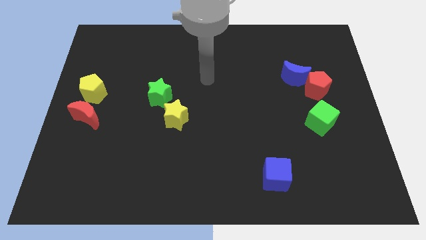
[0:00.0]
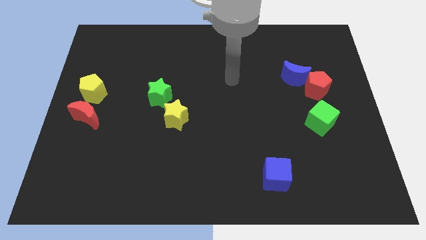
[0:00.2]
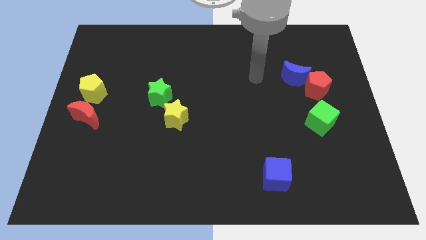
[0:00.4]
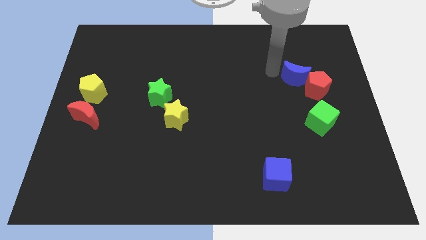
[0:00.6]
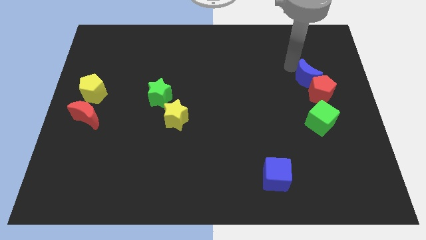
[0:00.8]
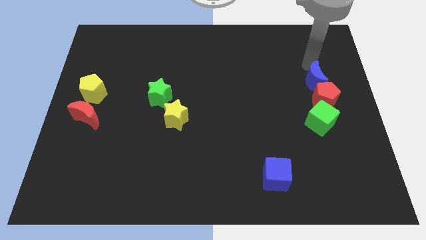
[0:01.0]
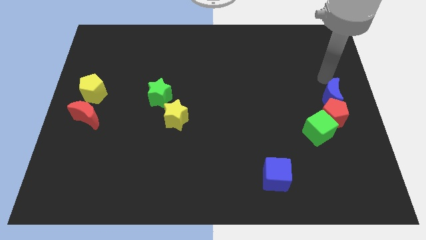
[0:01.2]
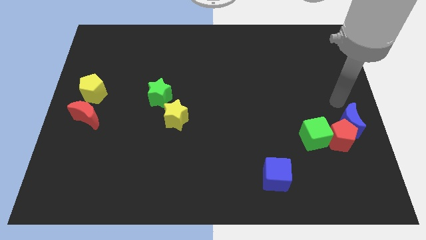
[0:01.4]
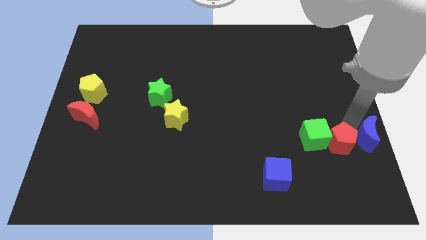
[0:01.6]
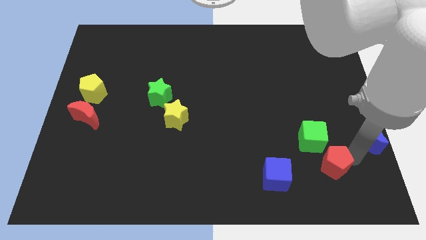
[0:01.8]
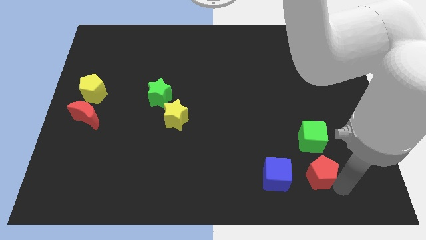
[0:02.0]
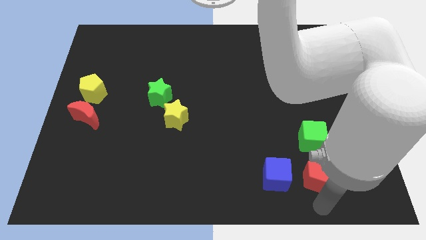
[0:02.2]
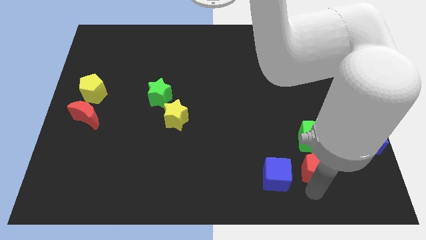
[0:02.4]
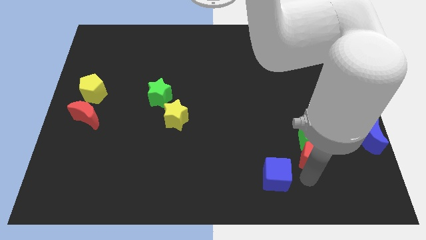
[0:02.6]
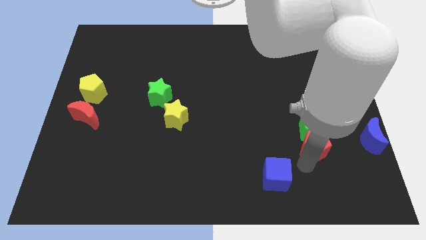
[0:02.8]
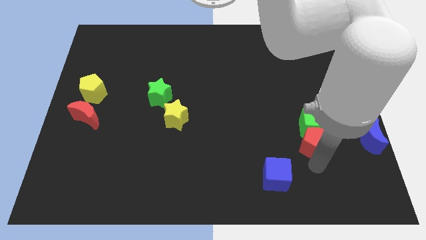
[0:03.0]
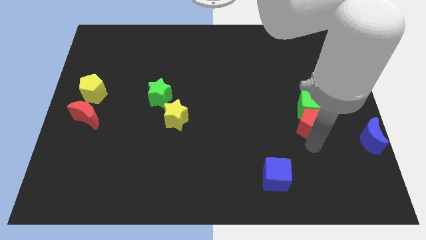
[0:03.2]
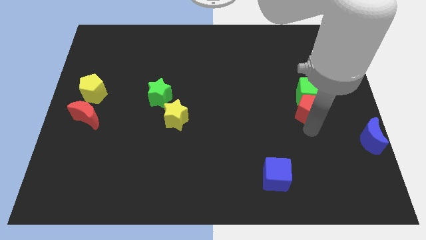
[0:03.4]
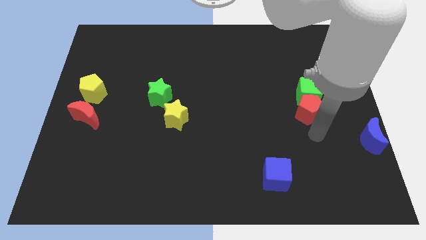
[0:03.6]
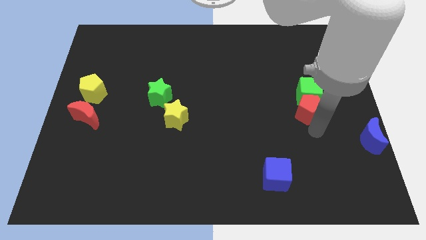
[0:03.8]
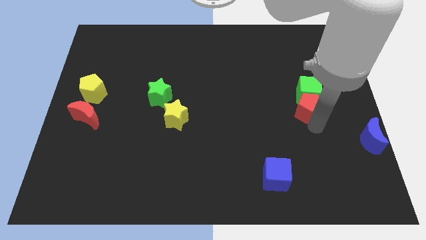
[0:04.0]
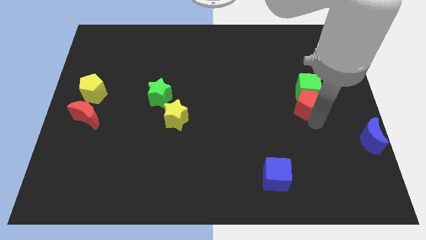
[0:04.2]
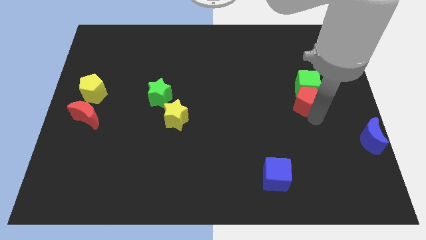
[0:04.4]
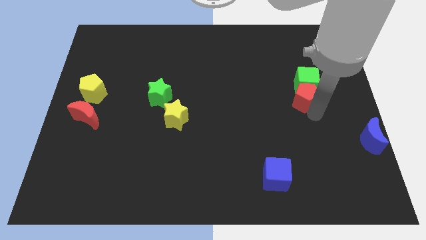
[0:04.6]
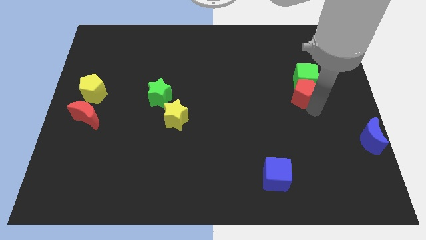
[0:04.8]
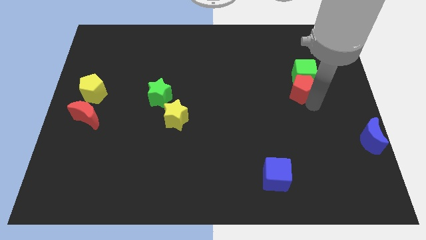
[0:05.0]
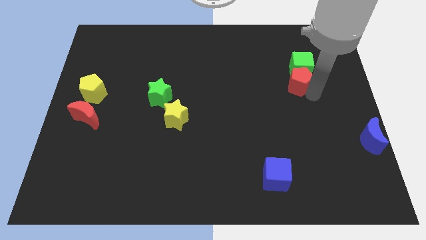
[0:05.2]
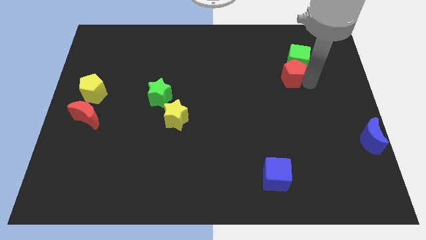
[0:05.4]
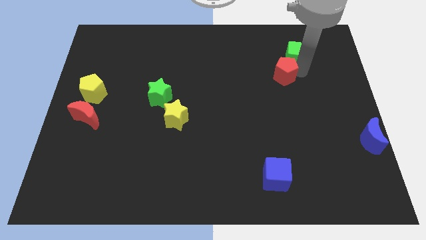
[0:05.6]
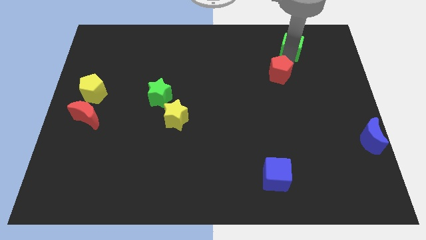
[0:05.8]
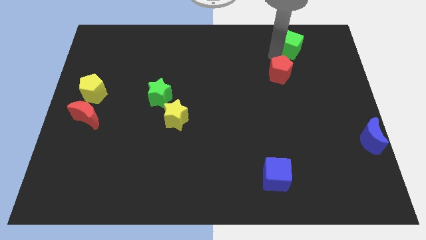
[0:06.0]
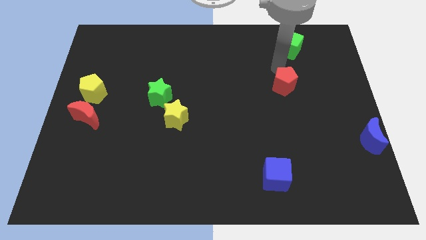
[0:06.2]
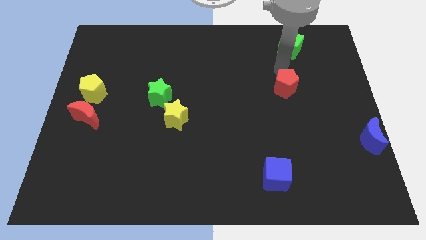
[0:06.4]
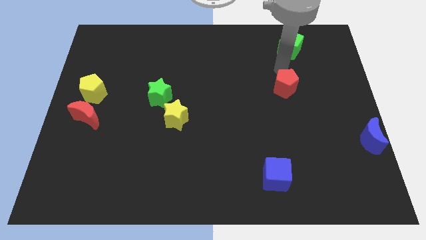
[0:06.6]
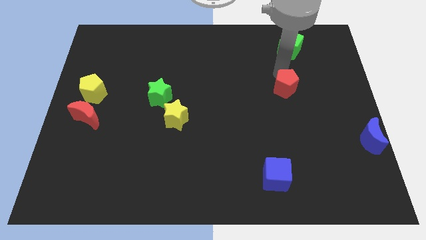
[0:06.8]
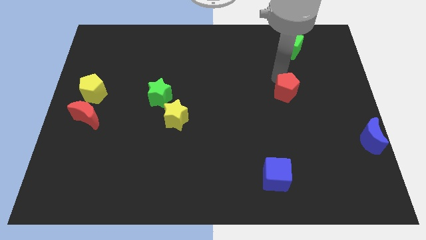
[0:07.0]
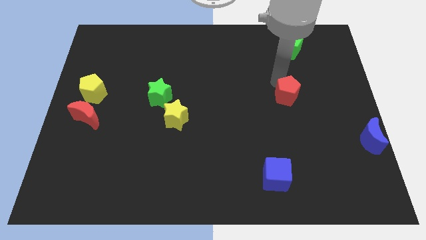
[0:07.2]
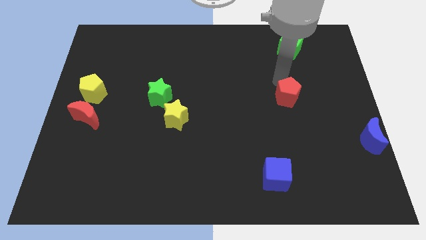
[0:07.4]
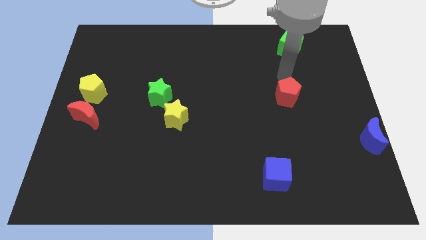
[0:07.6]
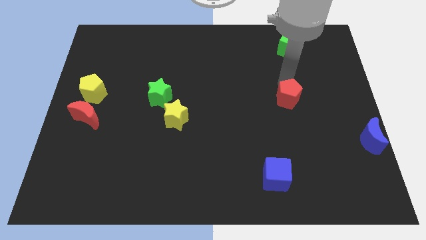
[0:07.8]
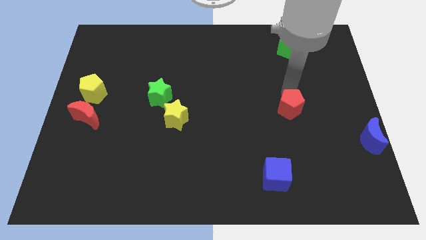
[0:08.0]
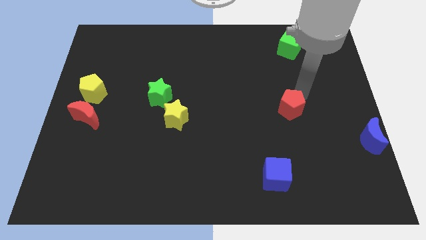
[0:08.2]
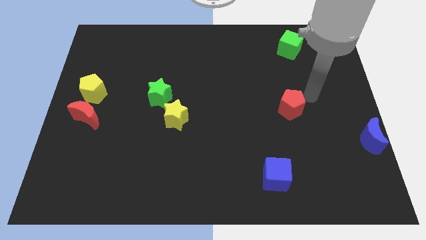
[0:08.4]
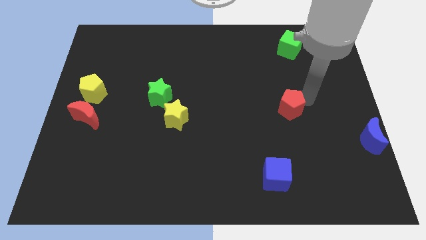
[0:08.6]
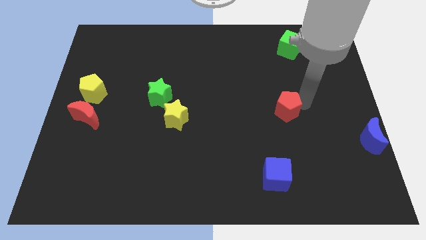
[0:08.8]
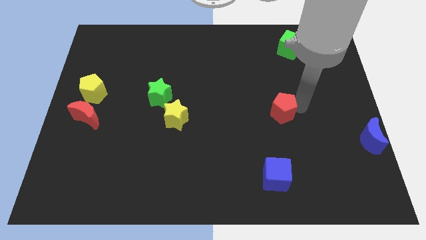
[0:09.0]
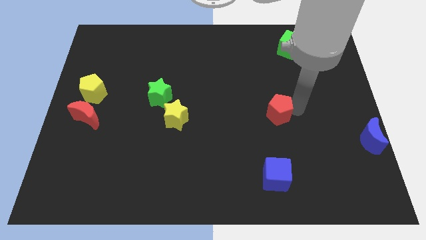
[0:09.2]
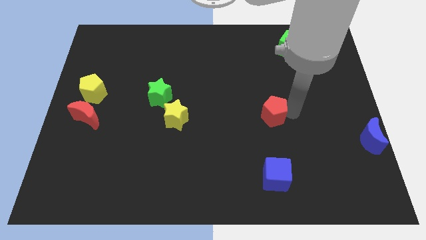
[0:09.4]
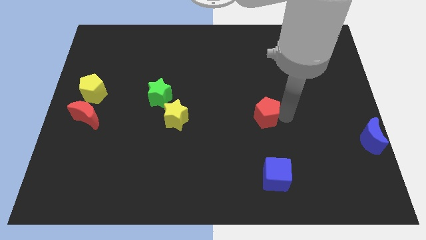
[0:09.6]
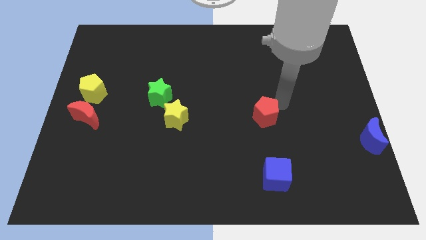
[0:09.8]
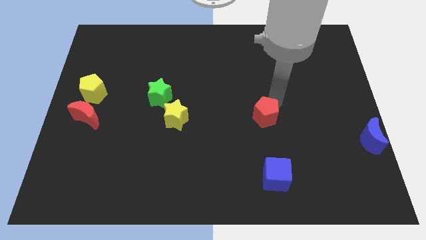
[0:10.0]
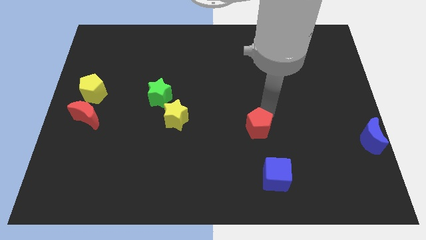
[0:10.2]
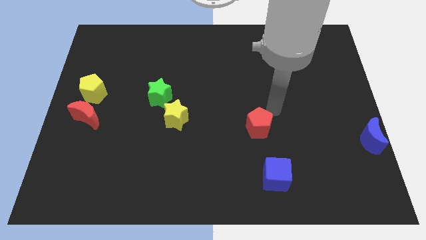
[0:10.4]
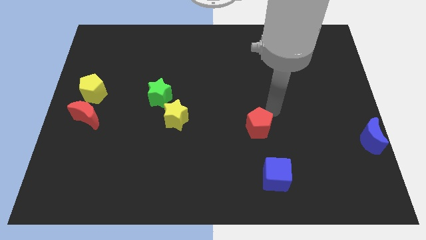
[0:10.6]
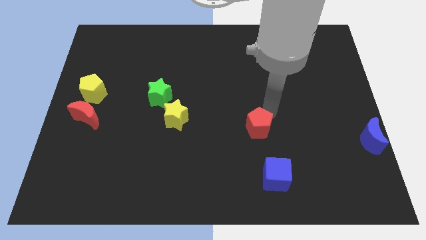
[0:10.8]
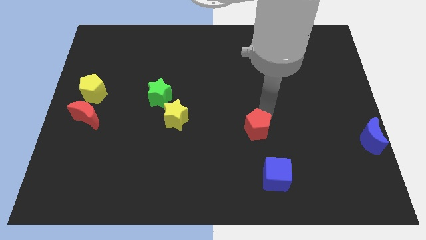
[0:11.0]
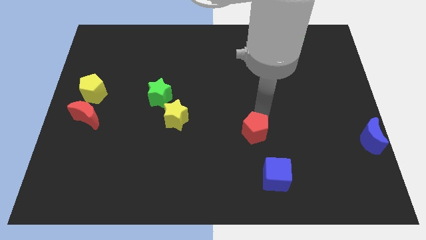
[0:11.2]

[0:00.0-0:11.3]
slide the red pentagon down and then left

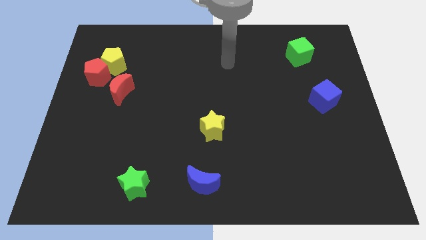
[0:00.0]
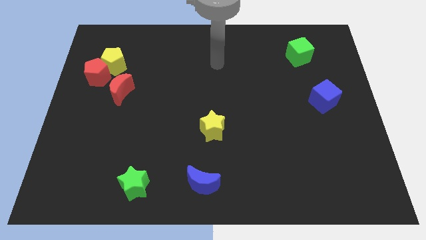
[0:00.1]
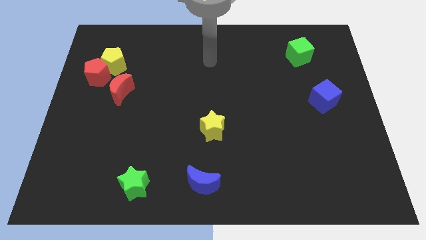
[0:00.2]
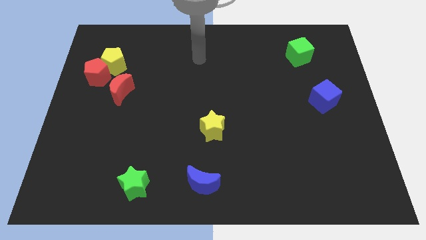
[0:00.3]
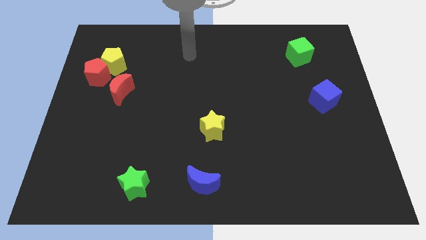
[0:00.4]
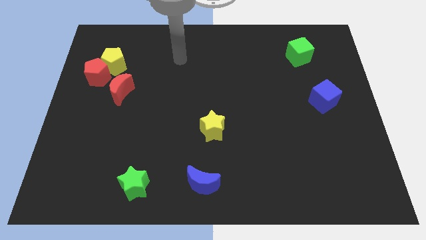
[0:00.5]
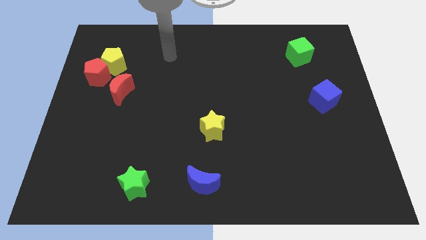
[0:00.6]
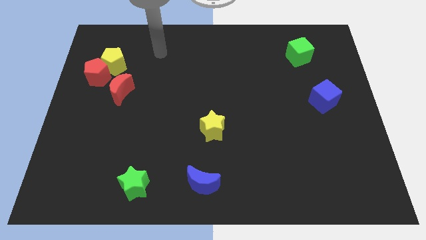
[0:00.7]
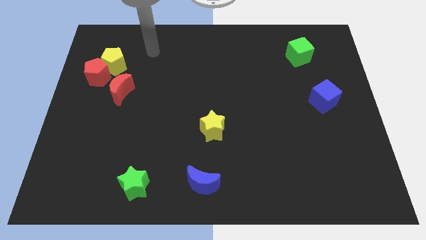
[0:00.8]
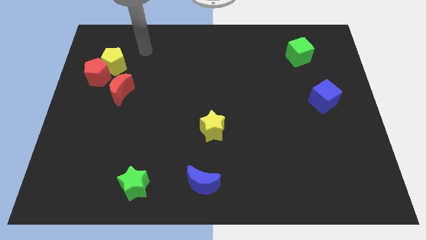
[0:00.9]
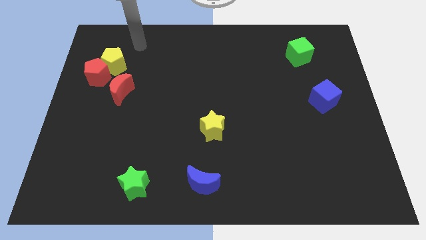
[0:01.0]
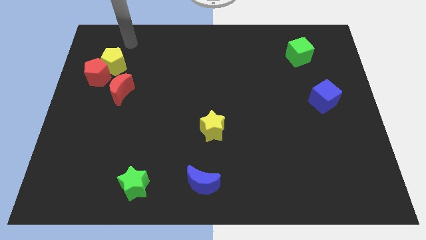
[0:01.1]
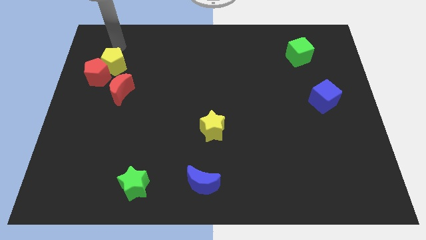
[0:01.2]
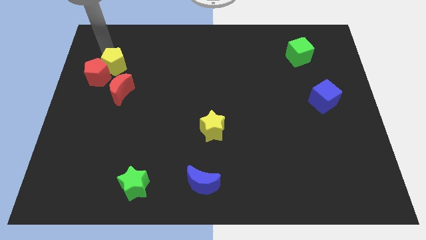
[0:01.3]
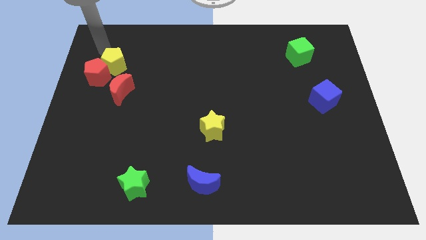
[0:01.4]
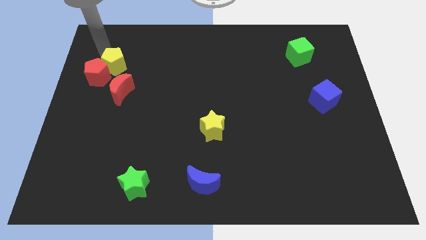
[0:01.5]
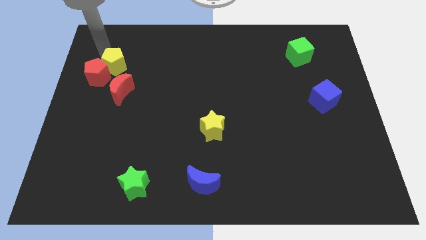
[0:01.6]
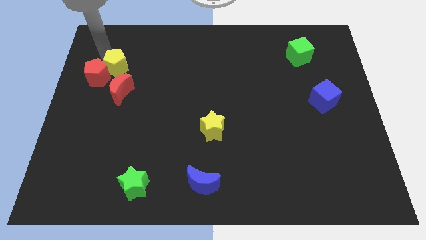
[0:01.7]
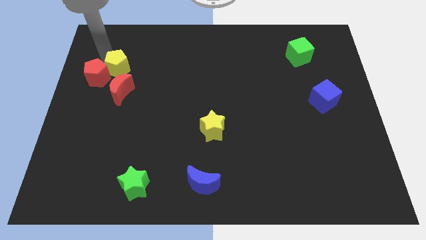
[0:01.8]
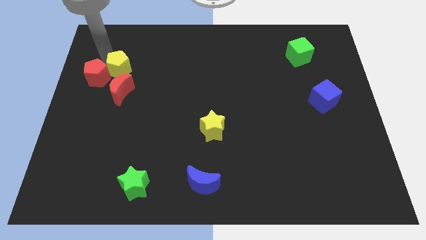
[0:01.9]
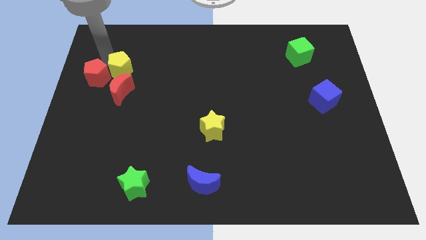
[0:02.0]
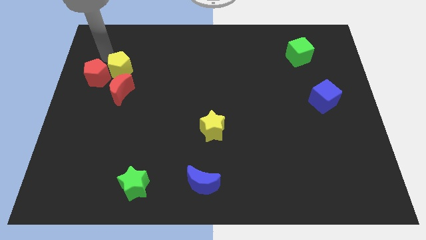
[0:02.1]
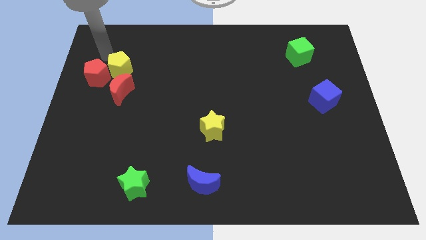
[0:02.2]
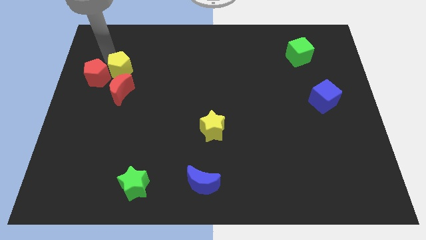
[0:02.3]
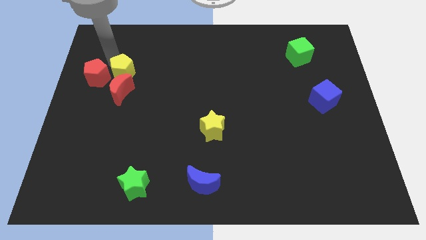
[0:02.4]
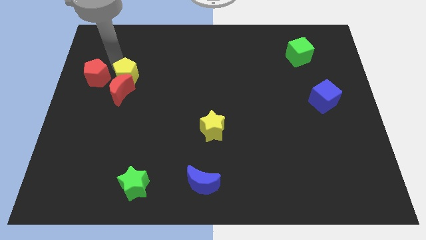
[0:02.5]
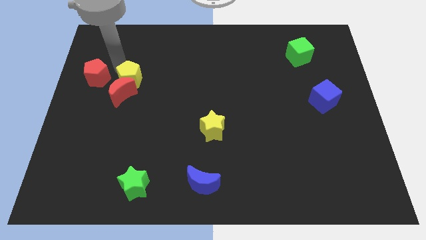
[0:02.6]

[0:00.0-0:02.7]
slightly slide the yellow pentagon downwards and then right
